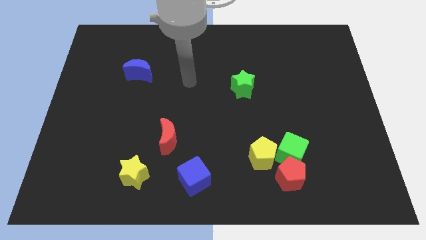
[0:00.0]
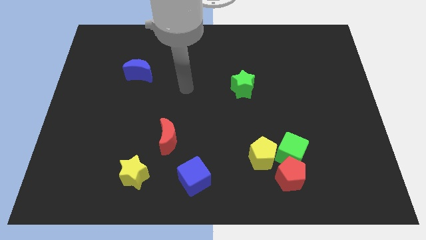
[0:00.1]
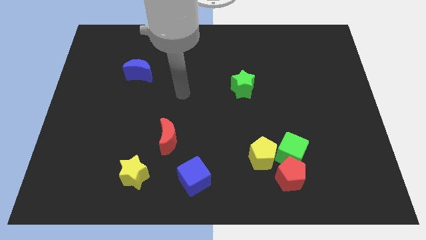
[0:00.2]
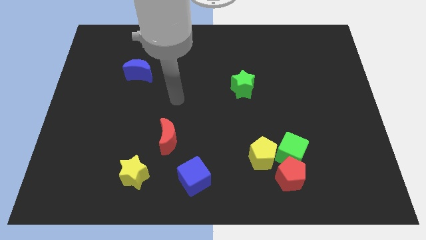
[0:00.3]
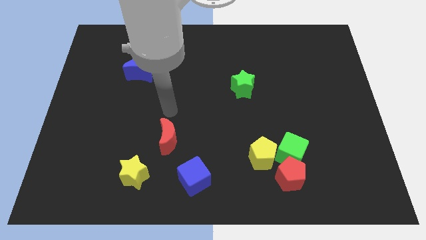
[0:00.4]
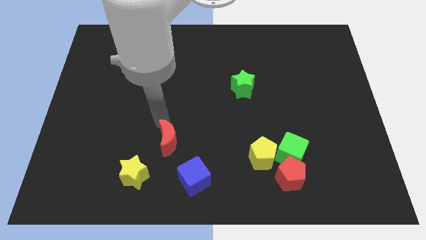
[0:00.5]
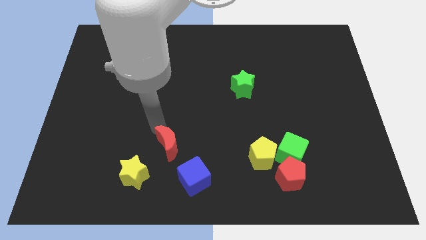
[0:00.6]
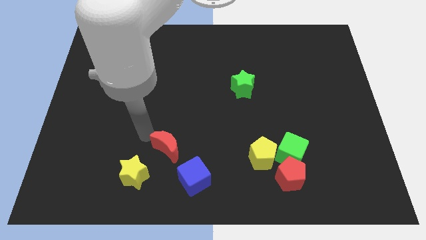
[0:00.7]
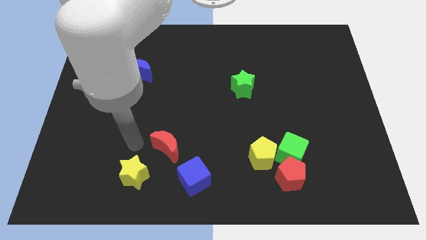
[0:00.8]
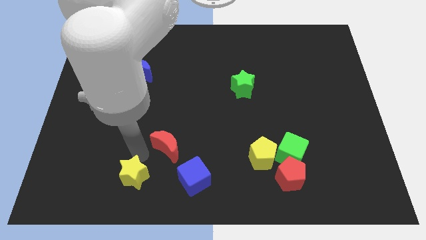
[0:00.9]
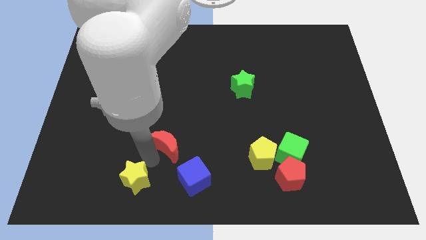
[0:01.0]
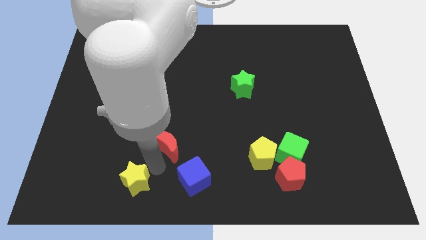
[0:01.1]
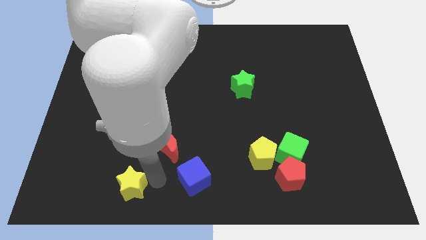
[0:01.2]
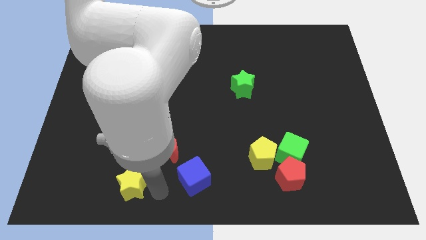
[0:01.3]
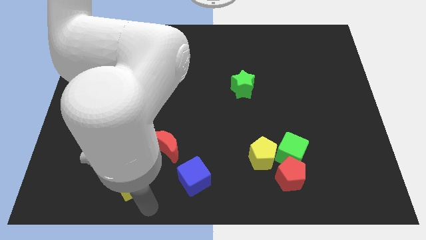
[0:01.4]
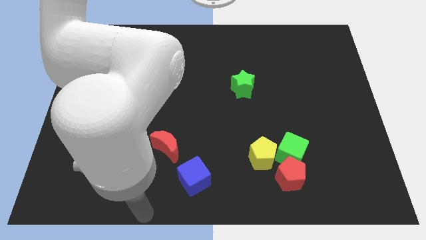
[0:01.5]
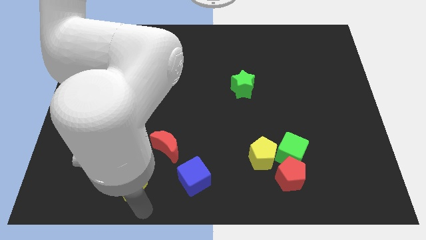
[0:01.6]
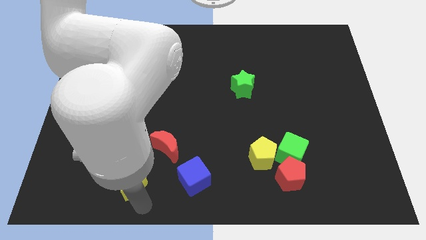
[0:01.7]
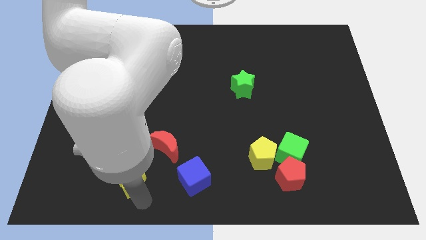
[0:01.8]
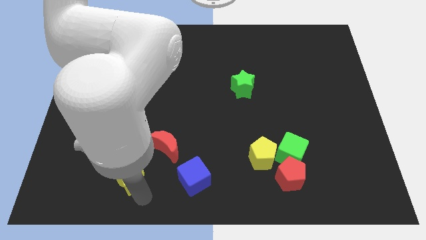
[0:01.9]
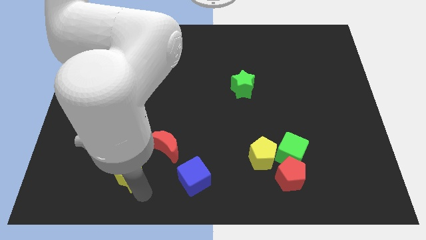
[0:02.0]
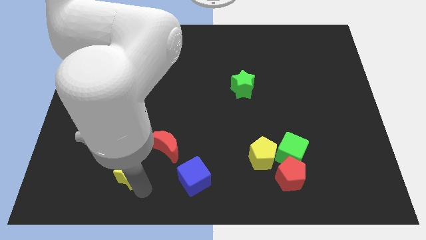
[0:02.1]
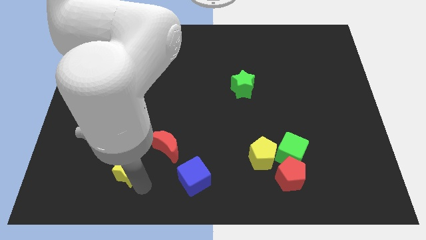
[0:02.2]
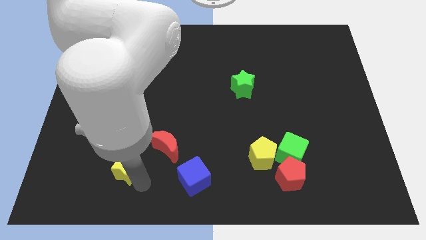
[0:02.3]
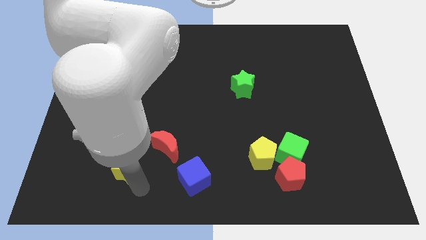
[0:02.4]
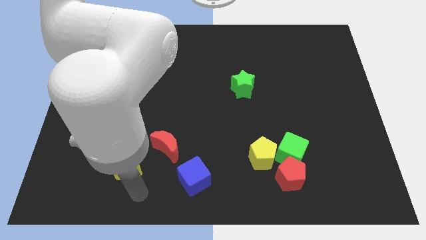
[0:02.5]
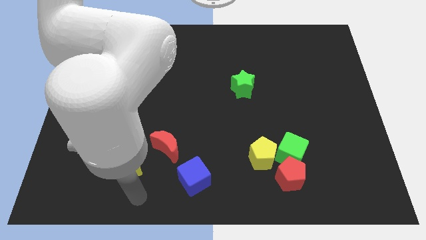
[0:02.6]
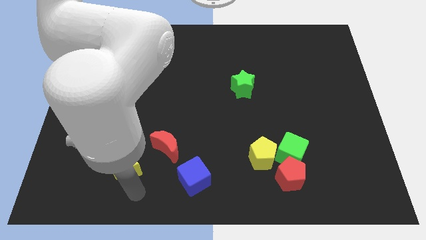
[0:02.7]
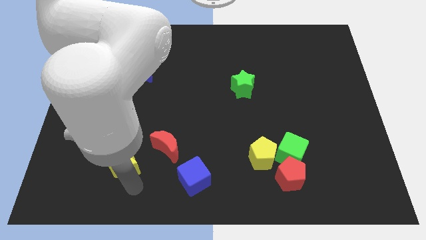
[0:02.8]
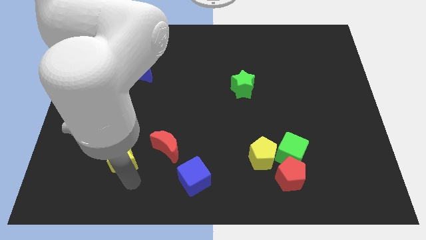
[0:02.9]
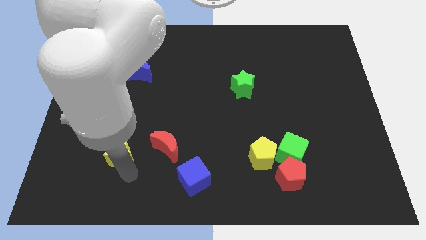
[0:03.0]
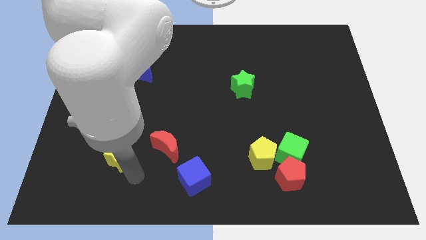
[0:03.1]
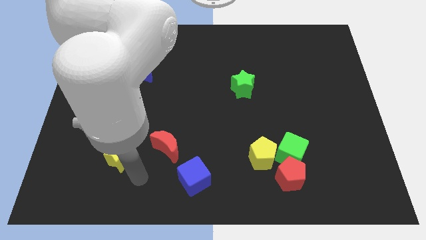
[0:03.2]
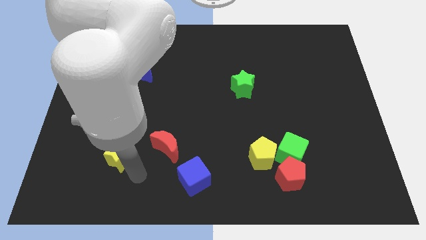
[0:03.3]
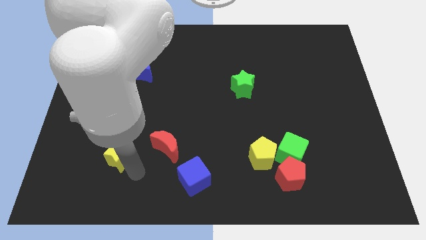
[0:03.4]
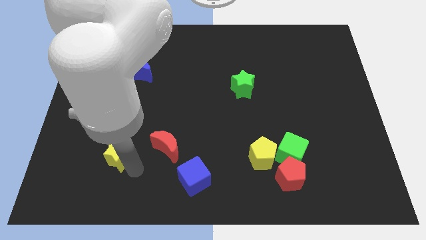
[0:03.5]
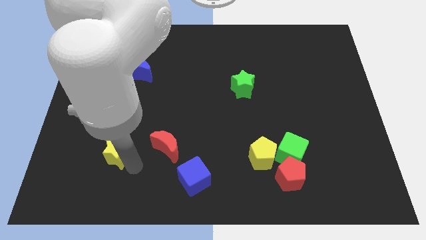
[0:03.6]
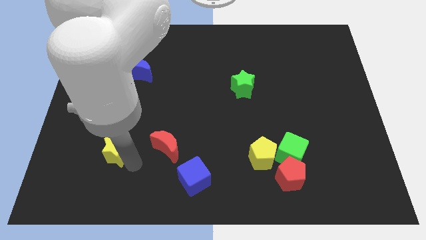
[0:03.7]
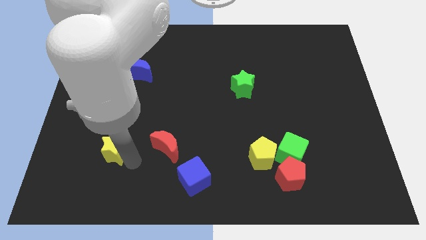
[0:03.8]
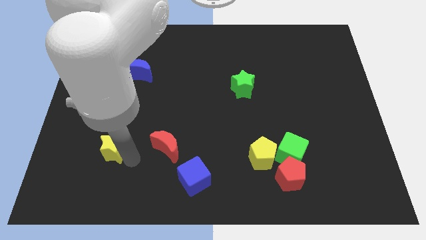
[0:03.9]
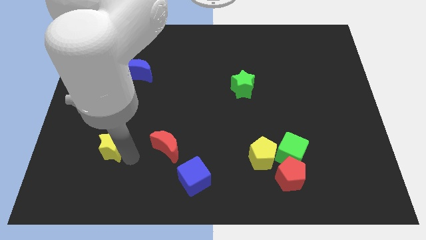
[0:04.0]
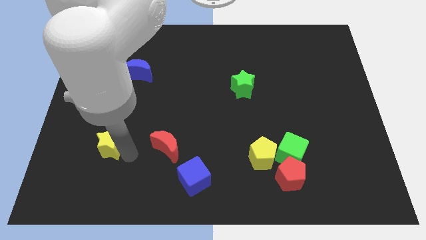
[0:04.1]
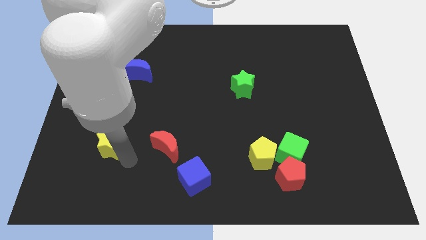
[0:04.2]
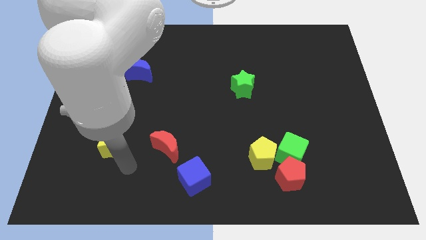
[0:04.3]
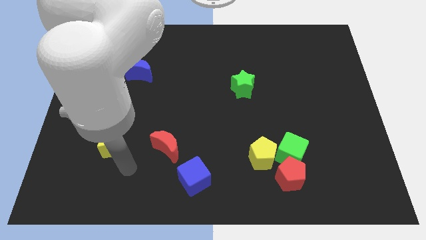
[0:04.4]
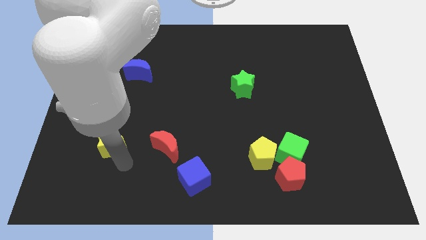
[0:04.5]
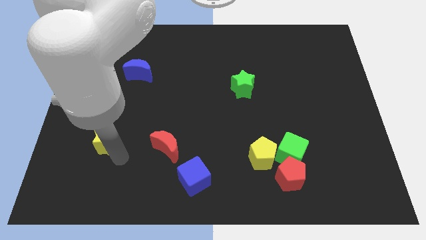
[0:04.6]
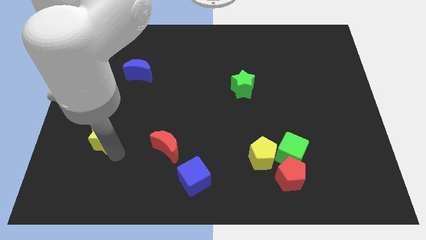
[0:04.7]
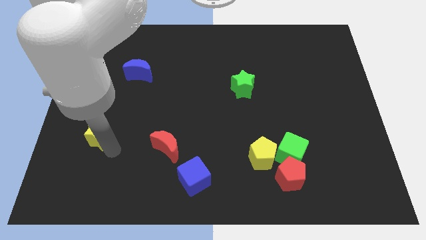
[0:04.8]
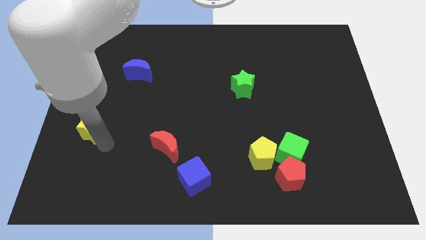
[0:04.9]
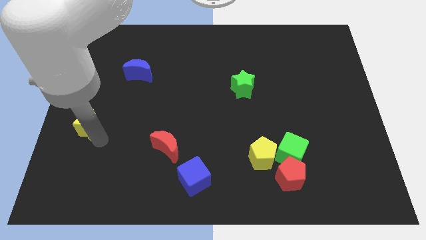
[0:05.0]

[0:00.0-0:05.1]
put the yellow star to the left side of the board

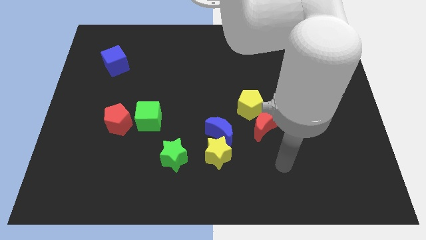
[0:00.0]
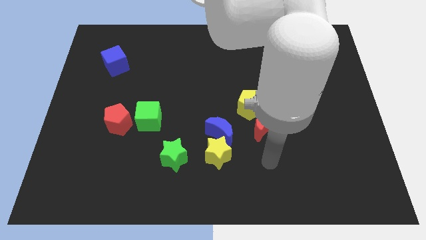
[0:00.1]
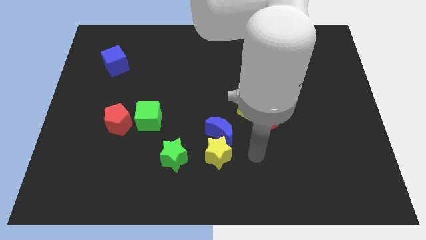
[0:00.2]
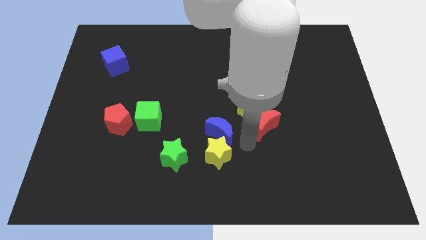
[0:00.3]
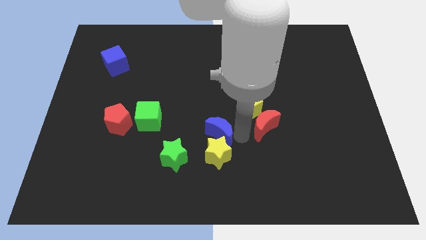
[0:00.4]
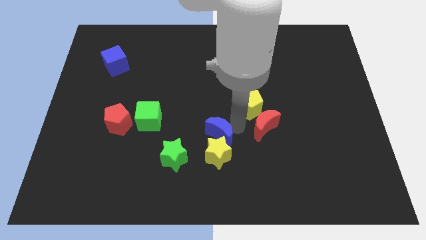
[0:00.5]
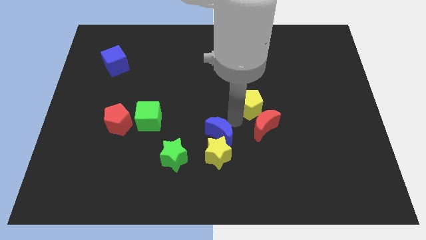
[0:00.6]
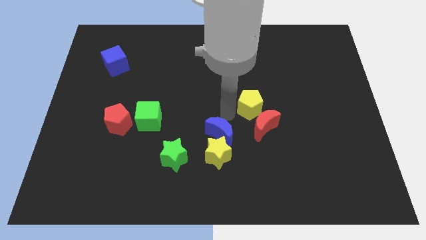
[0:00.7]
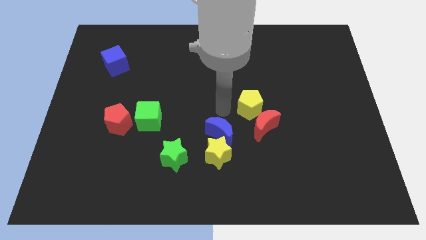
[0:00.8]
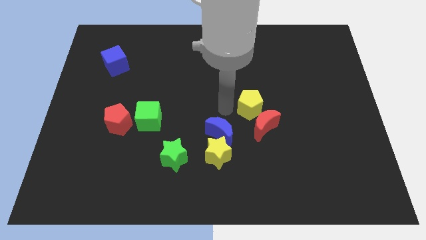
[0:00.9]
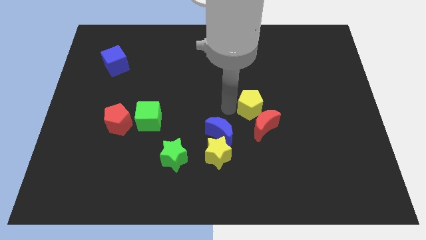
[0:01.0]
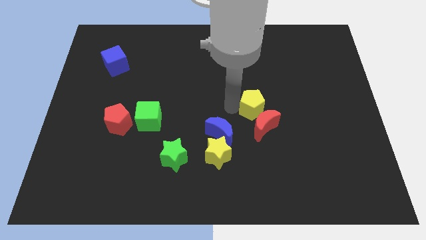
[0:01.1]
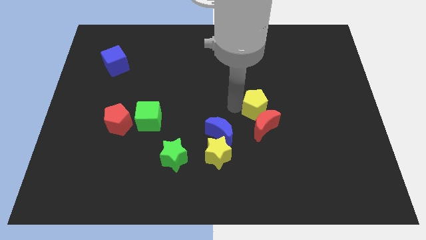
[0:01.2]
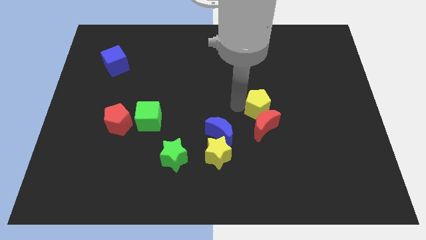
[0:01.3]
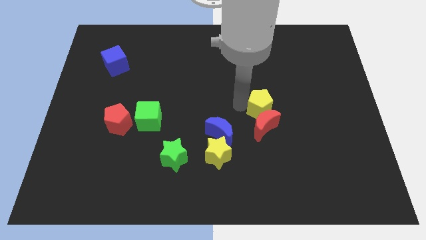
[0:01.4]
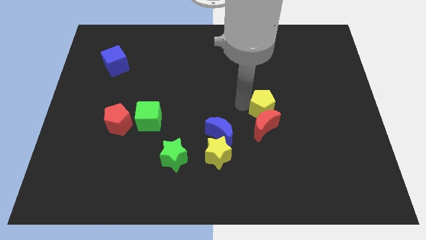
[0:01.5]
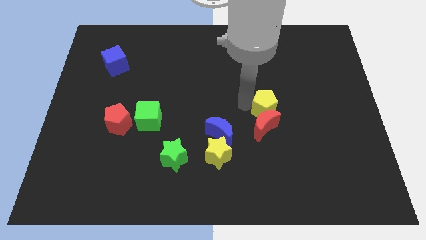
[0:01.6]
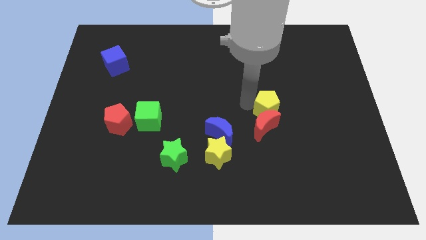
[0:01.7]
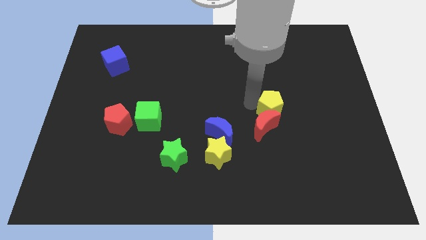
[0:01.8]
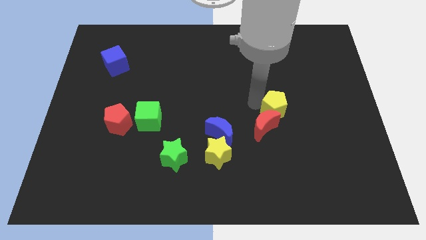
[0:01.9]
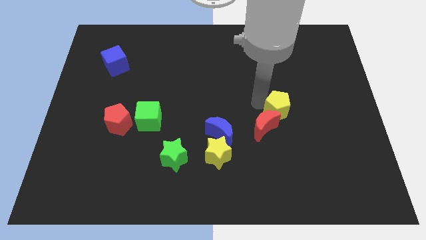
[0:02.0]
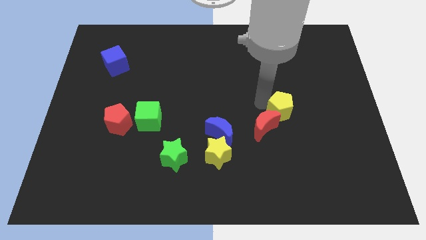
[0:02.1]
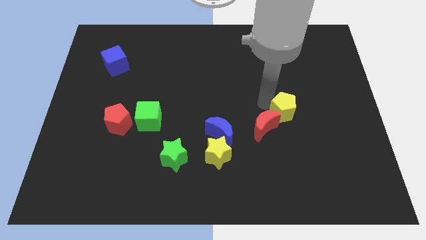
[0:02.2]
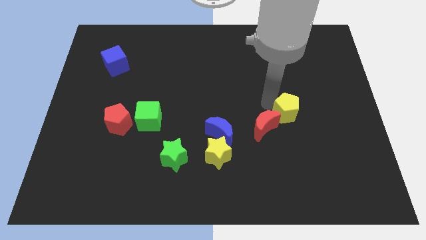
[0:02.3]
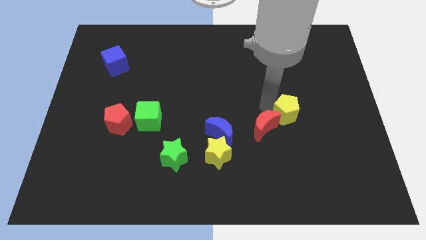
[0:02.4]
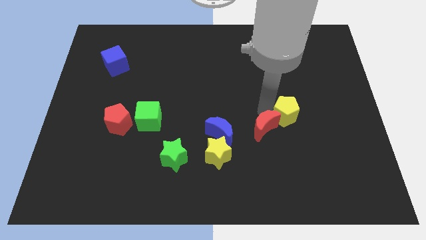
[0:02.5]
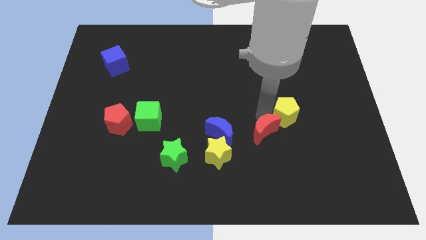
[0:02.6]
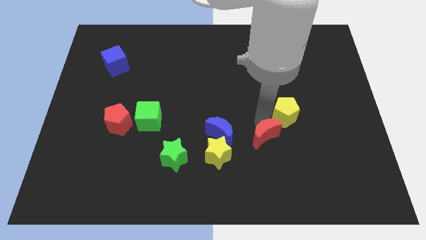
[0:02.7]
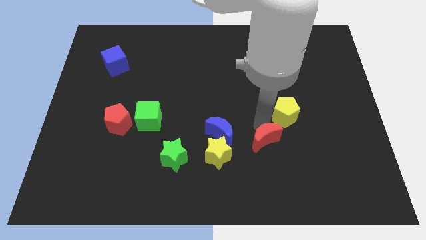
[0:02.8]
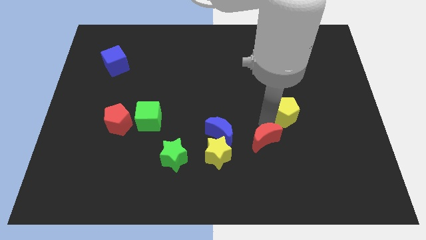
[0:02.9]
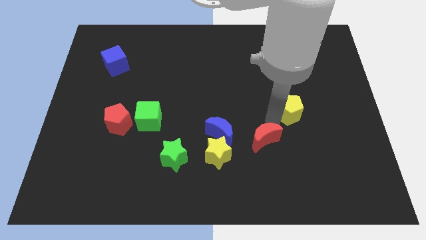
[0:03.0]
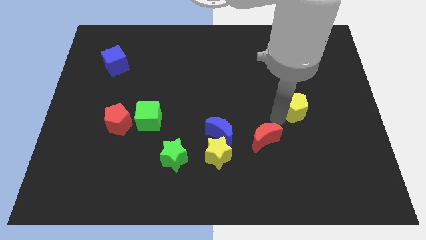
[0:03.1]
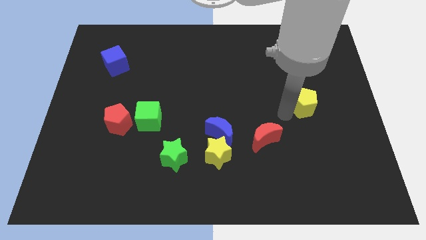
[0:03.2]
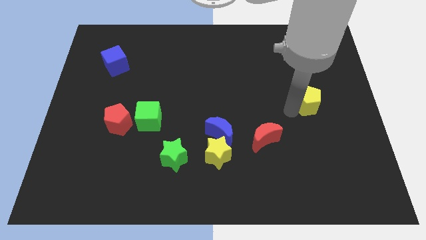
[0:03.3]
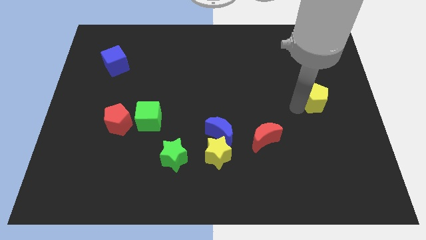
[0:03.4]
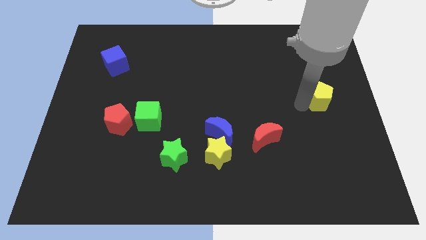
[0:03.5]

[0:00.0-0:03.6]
push the yellow pentagon to the right side of the board
